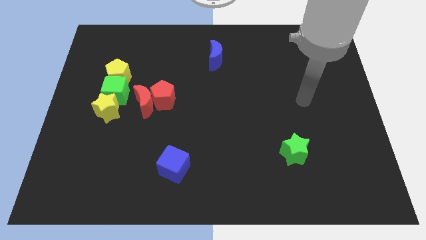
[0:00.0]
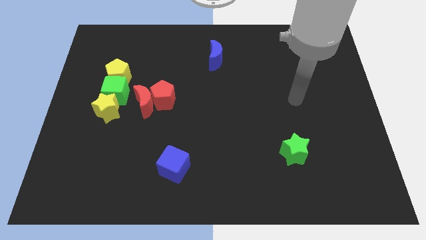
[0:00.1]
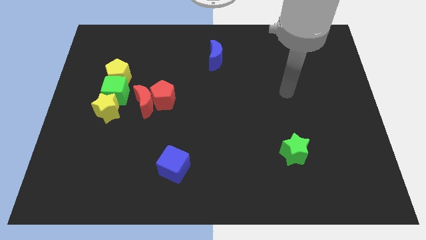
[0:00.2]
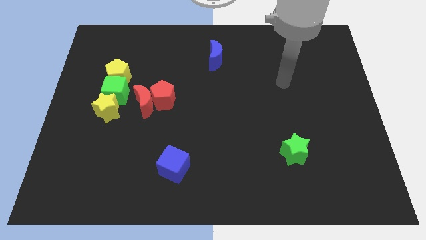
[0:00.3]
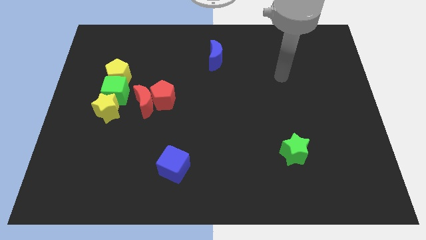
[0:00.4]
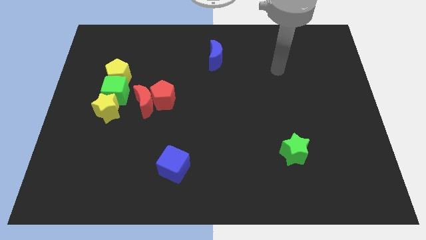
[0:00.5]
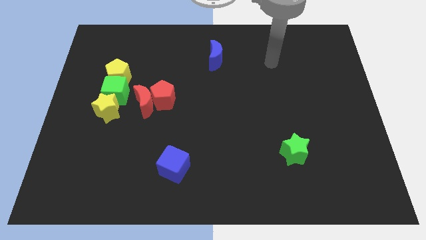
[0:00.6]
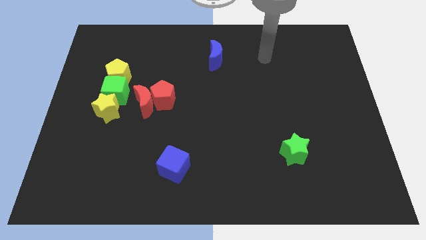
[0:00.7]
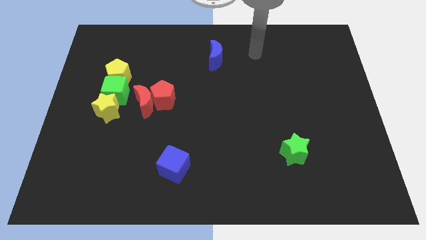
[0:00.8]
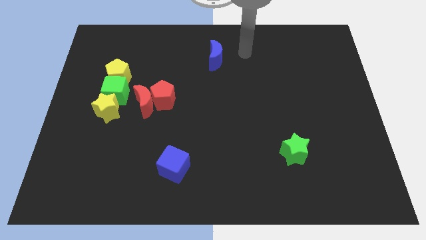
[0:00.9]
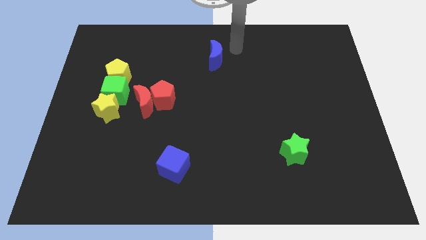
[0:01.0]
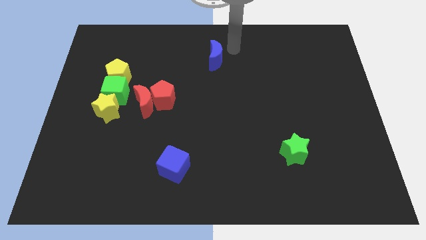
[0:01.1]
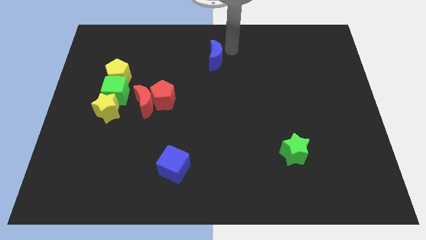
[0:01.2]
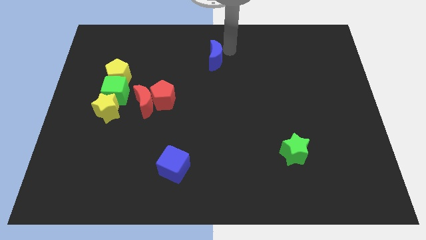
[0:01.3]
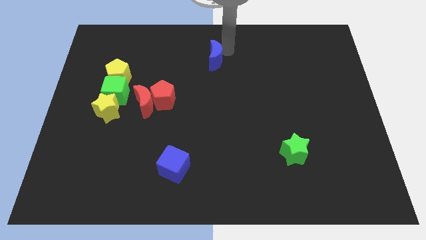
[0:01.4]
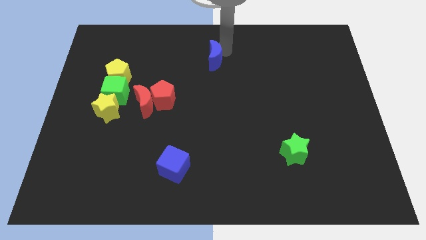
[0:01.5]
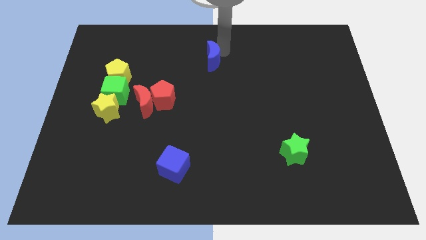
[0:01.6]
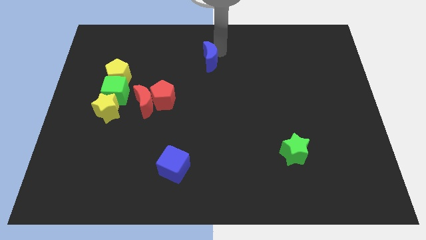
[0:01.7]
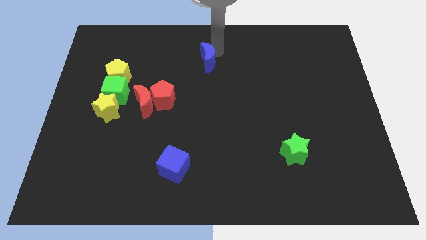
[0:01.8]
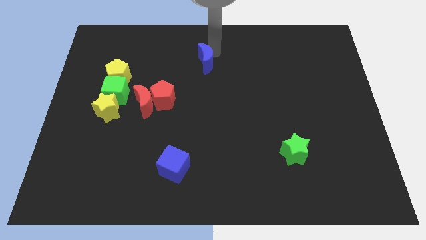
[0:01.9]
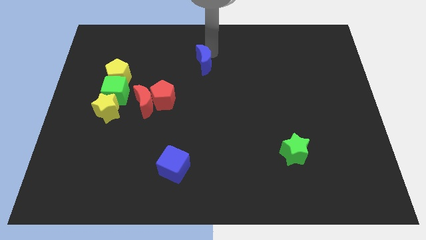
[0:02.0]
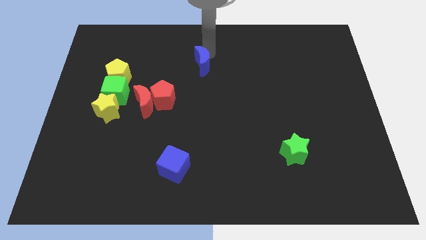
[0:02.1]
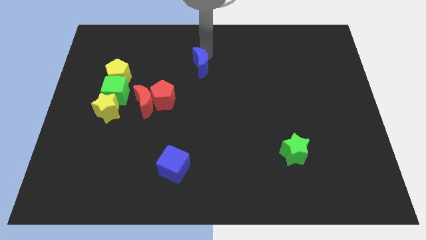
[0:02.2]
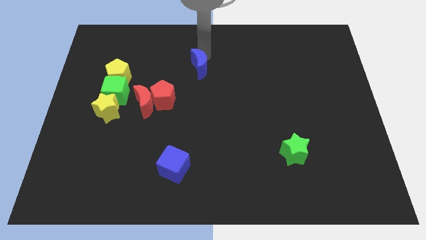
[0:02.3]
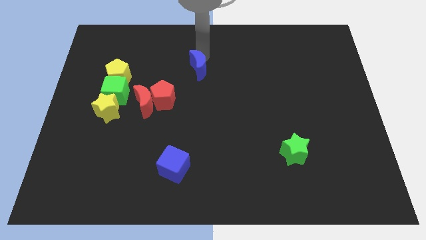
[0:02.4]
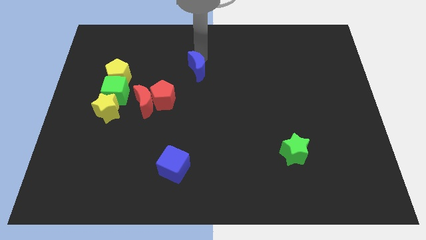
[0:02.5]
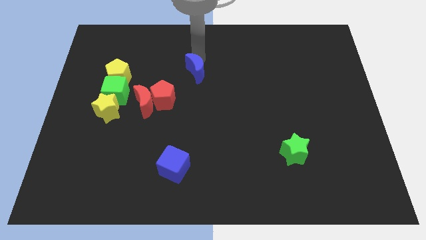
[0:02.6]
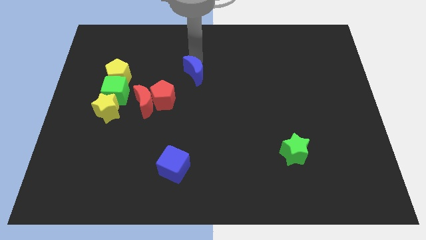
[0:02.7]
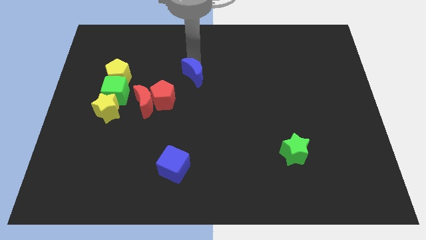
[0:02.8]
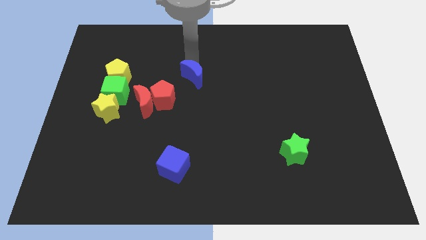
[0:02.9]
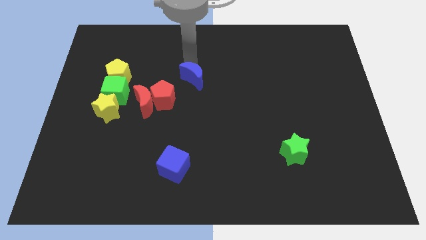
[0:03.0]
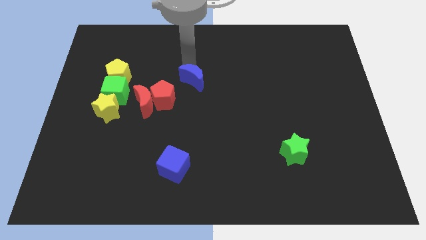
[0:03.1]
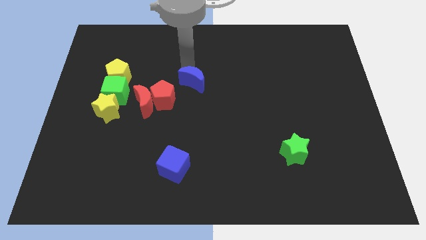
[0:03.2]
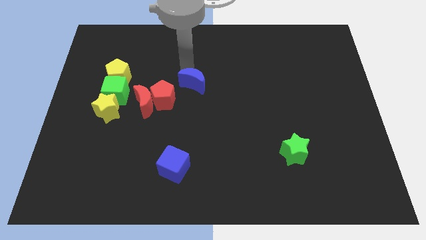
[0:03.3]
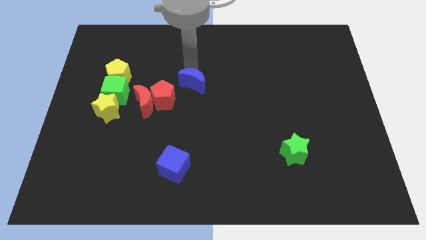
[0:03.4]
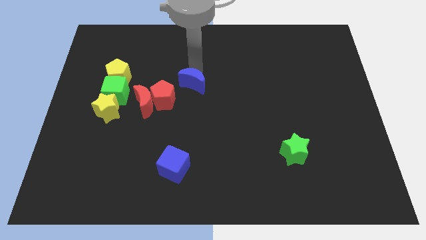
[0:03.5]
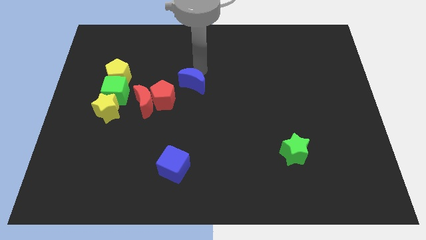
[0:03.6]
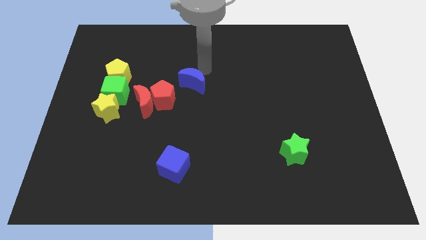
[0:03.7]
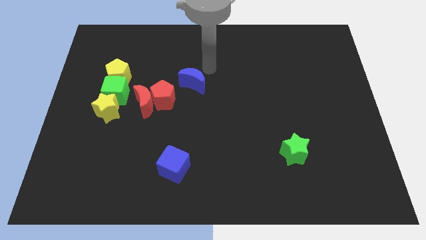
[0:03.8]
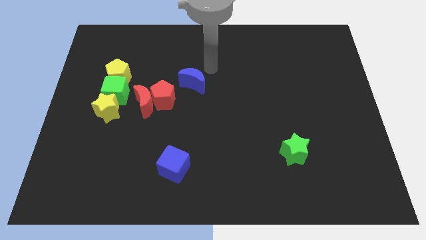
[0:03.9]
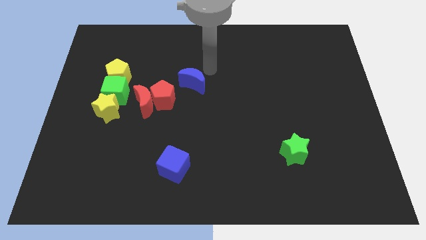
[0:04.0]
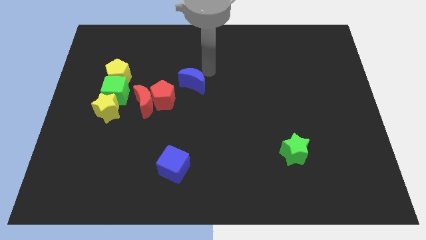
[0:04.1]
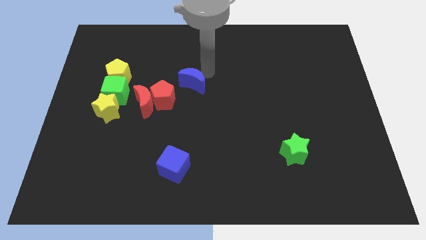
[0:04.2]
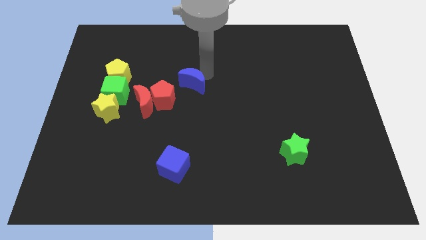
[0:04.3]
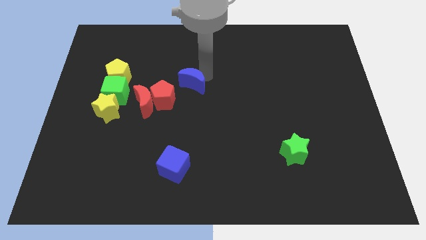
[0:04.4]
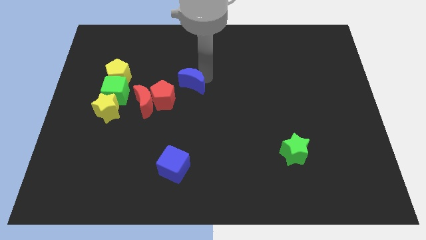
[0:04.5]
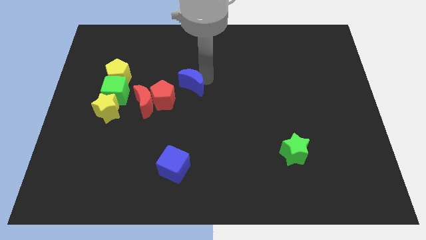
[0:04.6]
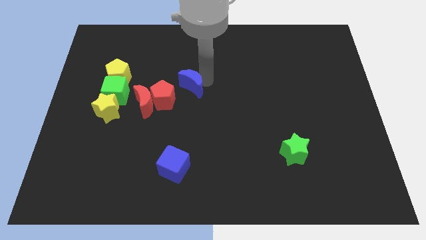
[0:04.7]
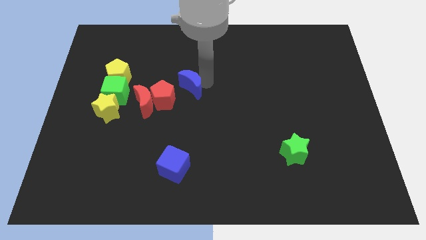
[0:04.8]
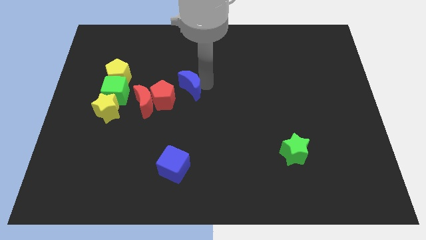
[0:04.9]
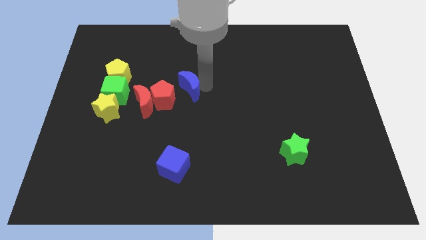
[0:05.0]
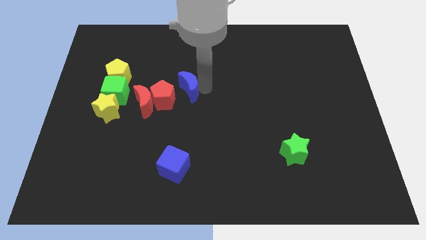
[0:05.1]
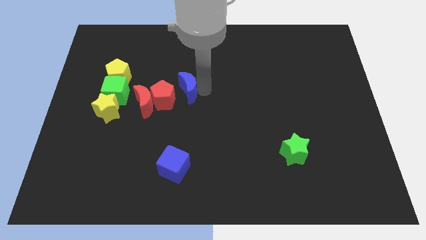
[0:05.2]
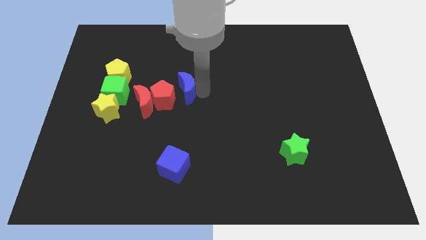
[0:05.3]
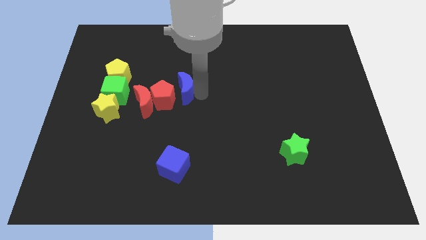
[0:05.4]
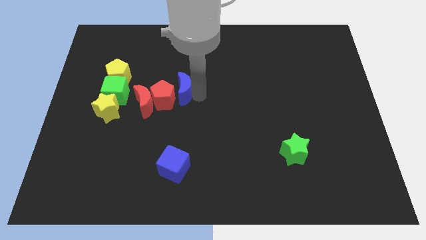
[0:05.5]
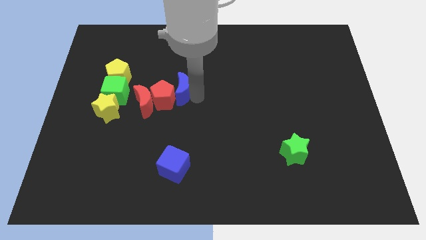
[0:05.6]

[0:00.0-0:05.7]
put the blue moon just right of the green cube
